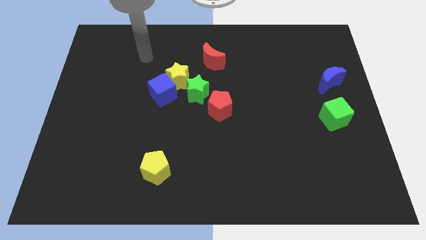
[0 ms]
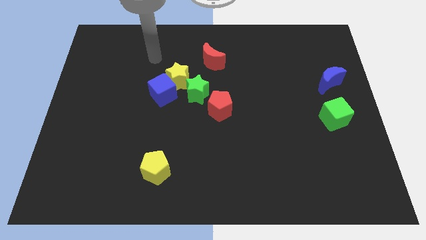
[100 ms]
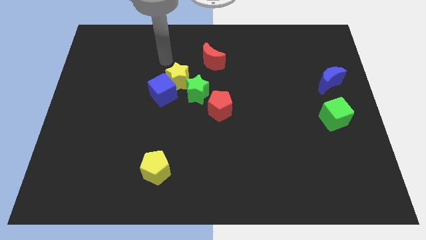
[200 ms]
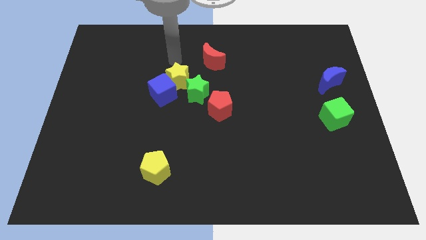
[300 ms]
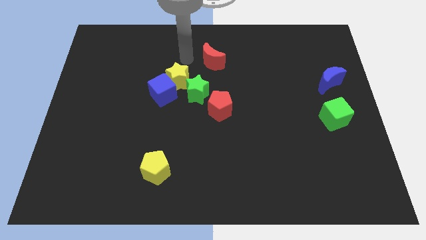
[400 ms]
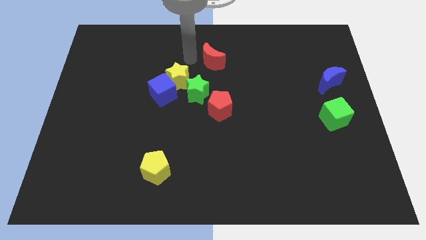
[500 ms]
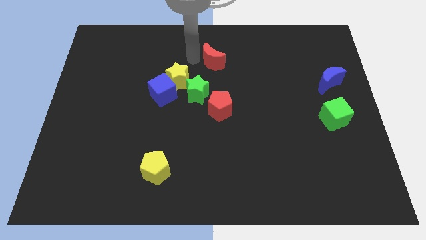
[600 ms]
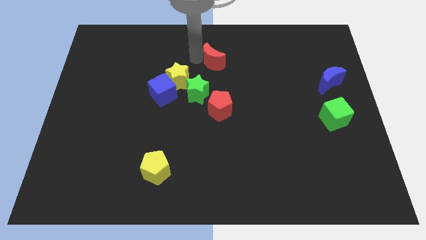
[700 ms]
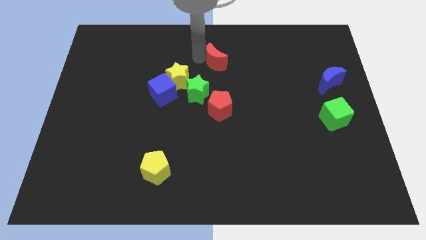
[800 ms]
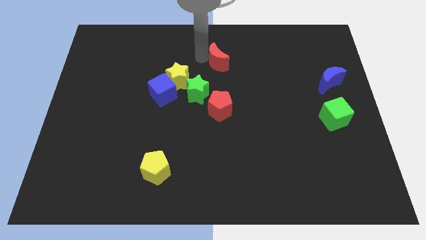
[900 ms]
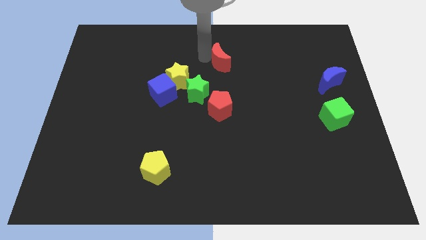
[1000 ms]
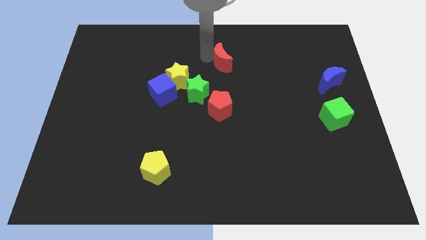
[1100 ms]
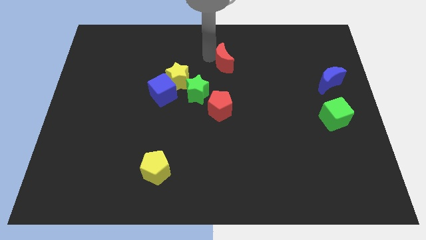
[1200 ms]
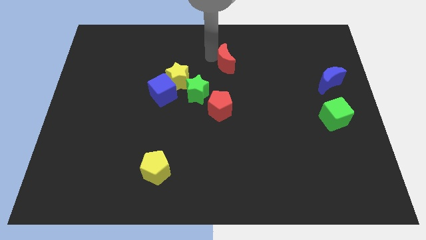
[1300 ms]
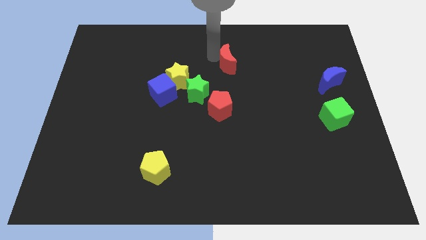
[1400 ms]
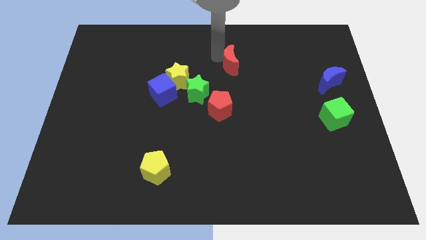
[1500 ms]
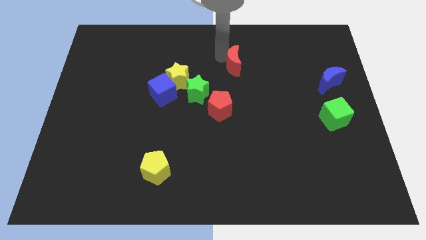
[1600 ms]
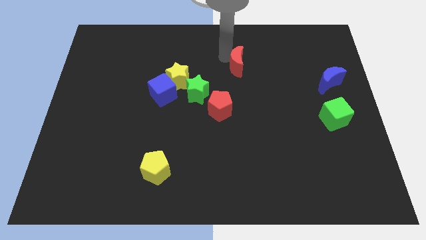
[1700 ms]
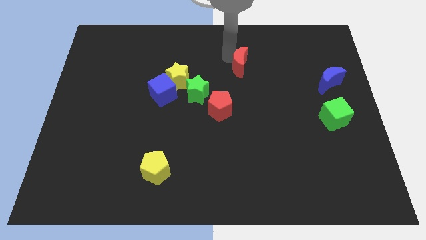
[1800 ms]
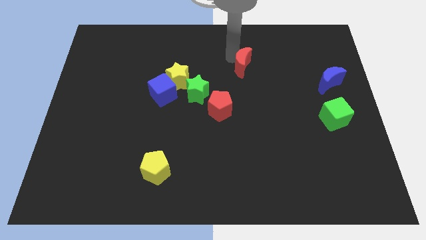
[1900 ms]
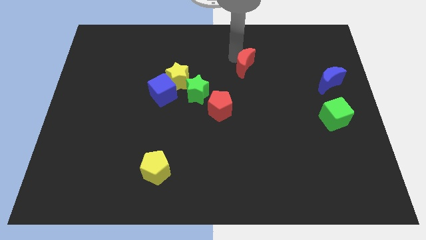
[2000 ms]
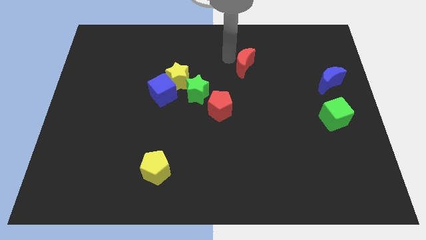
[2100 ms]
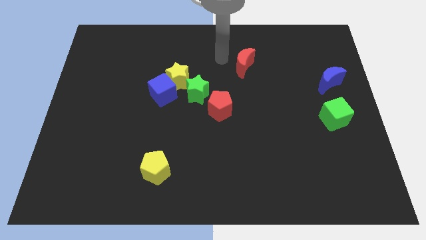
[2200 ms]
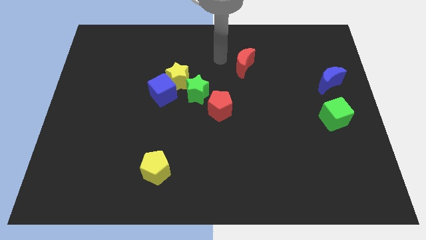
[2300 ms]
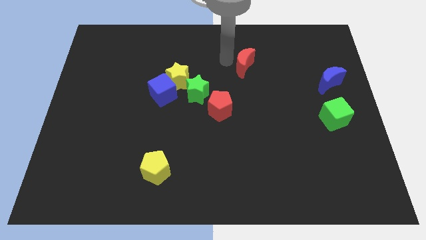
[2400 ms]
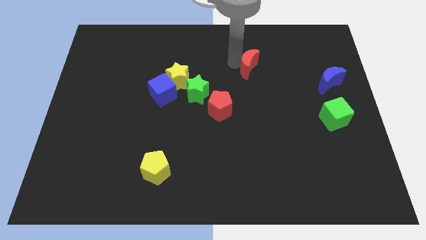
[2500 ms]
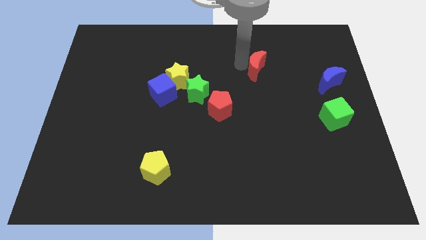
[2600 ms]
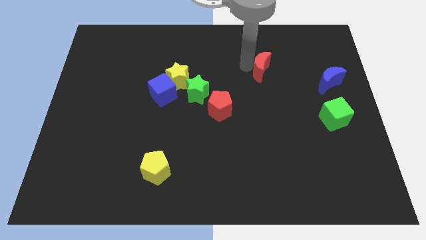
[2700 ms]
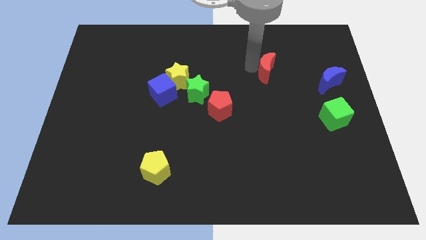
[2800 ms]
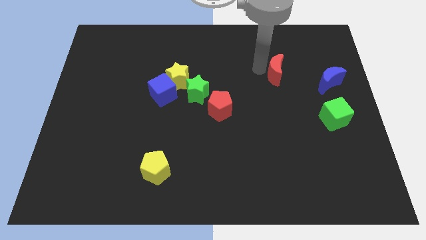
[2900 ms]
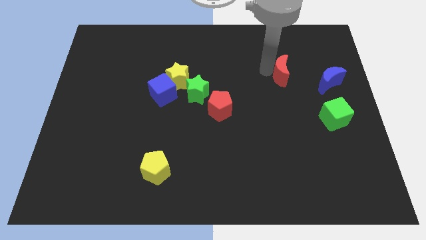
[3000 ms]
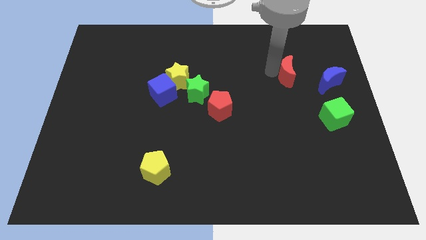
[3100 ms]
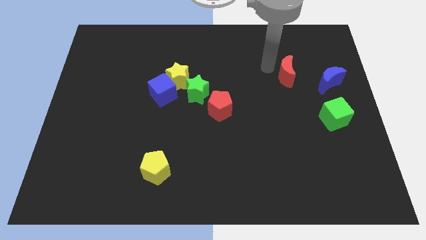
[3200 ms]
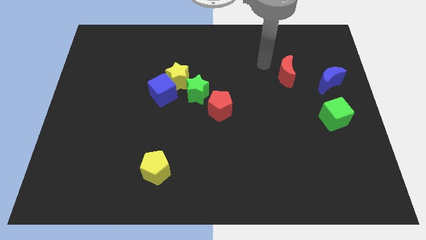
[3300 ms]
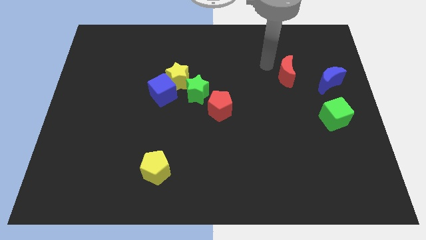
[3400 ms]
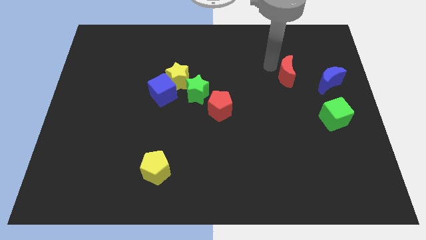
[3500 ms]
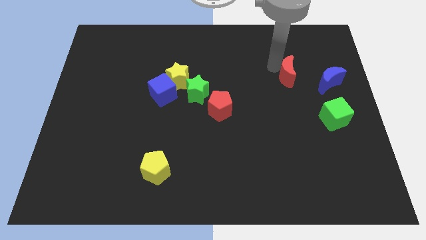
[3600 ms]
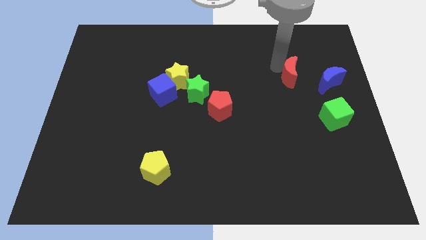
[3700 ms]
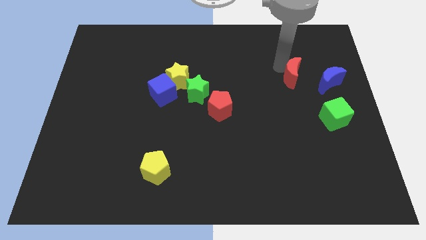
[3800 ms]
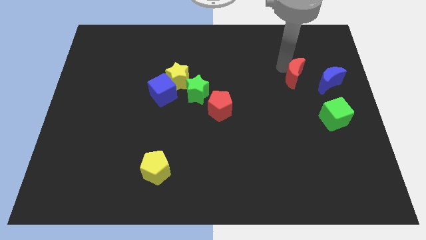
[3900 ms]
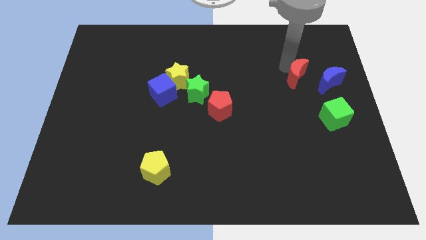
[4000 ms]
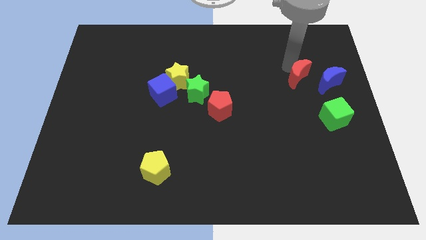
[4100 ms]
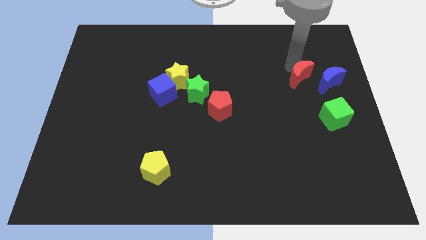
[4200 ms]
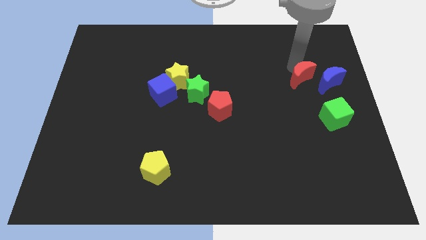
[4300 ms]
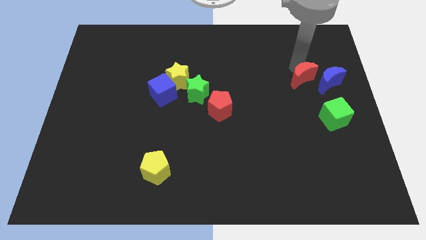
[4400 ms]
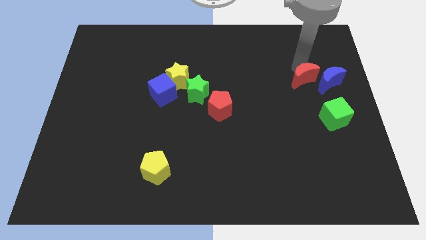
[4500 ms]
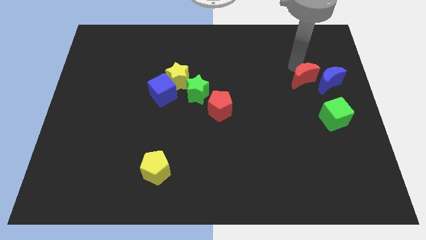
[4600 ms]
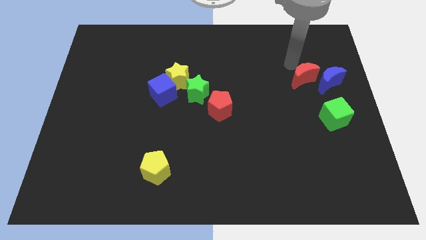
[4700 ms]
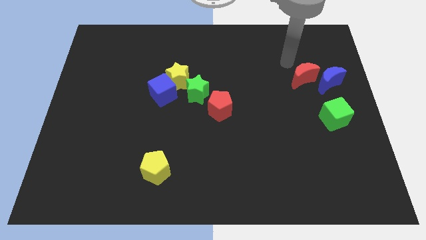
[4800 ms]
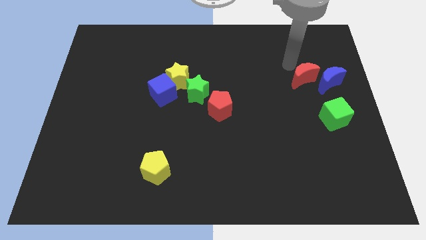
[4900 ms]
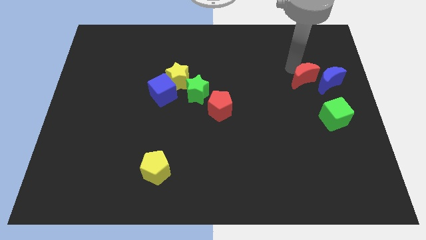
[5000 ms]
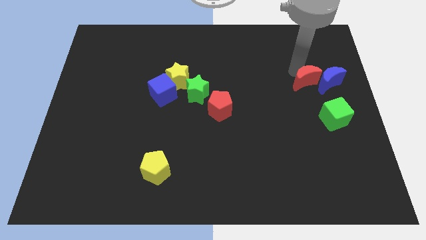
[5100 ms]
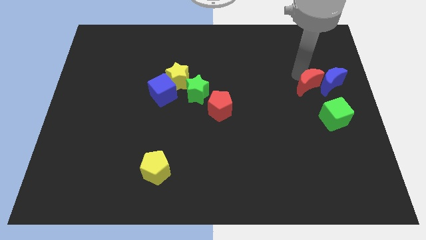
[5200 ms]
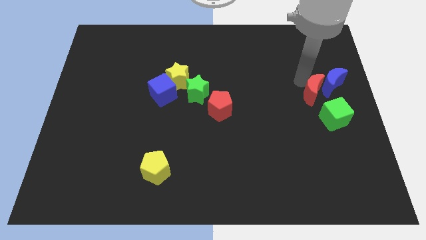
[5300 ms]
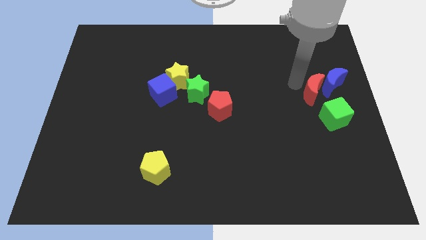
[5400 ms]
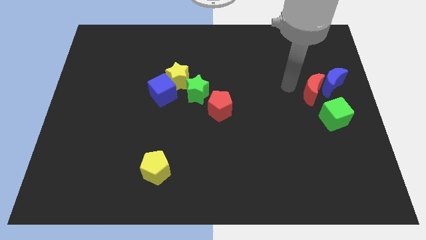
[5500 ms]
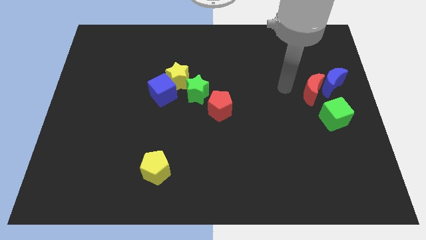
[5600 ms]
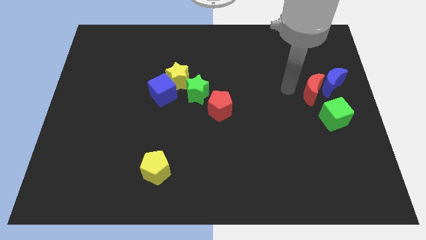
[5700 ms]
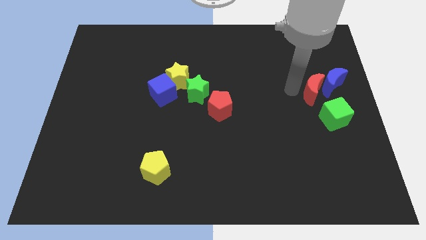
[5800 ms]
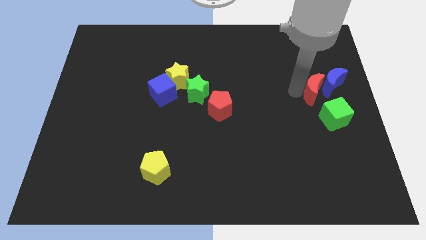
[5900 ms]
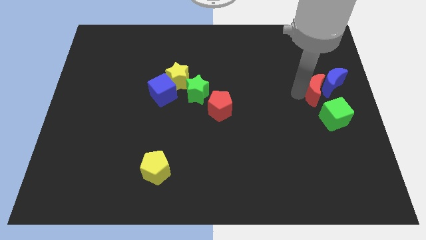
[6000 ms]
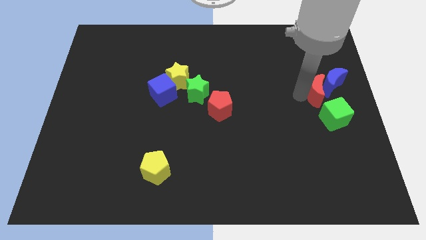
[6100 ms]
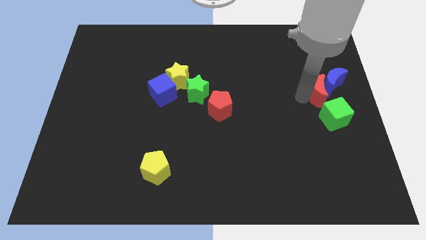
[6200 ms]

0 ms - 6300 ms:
slide the red moon to the right side
